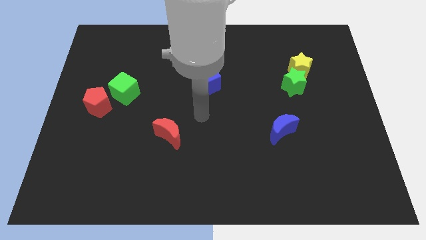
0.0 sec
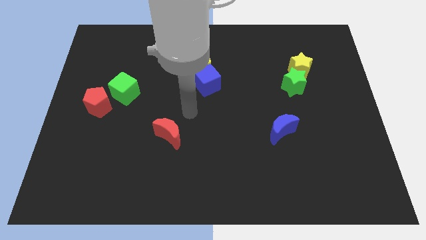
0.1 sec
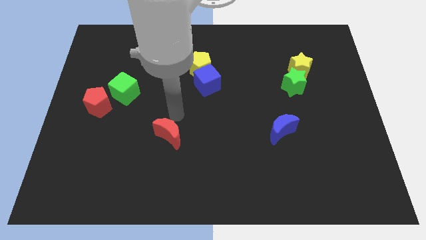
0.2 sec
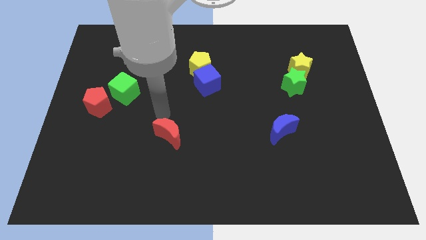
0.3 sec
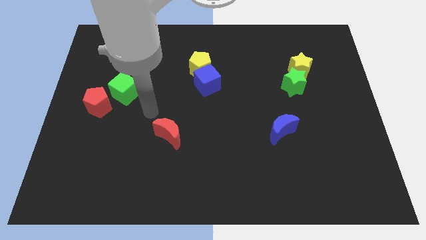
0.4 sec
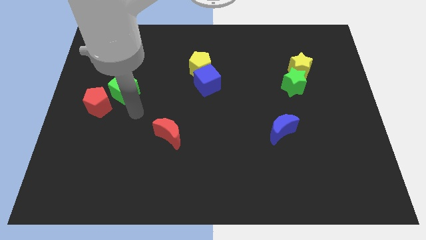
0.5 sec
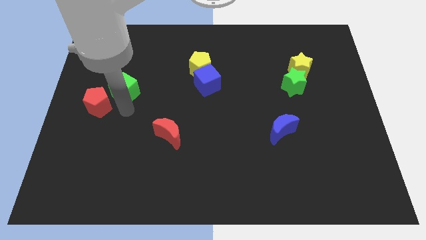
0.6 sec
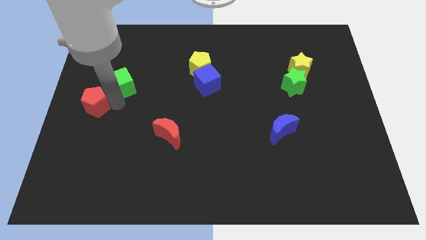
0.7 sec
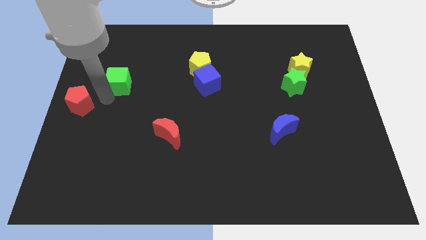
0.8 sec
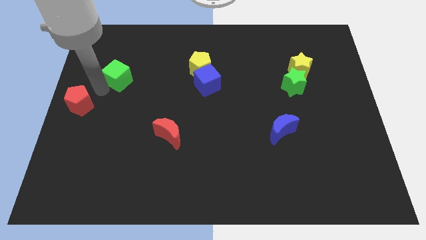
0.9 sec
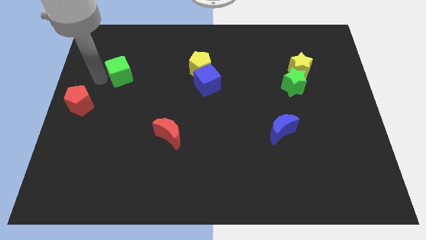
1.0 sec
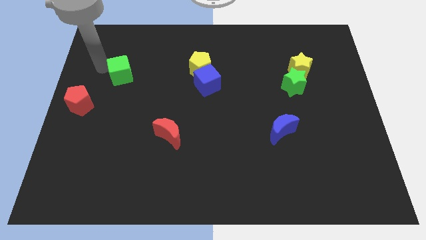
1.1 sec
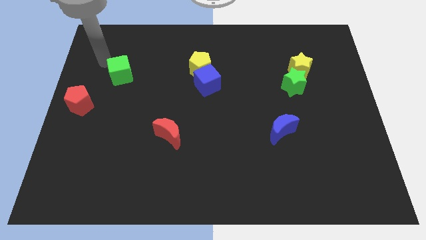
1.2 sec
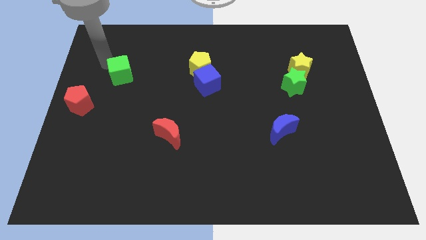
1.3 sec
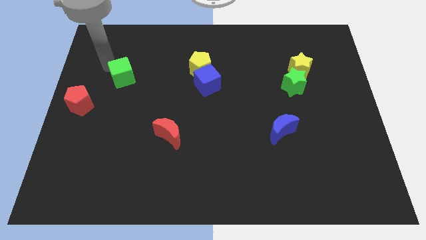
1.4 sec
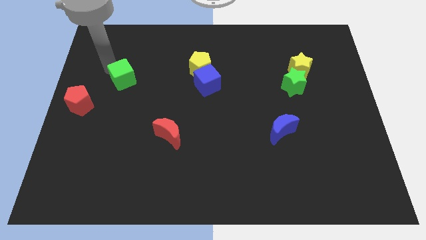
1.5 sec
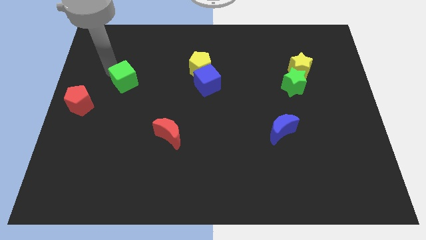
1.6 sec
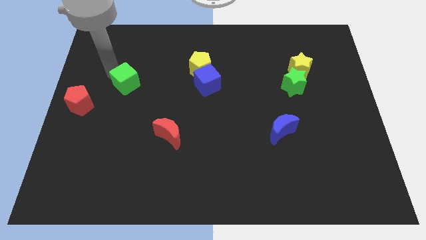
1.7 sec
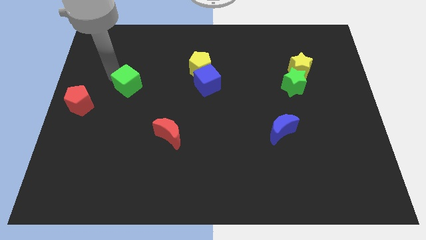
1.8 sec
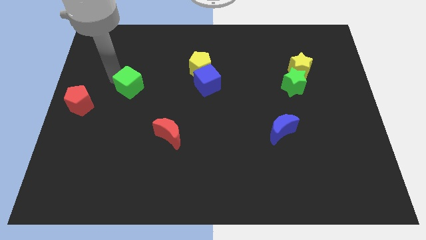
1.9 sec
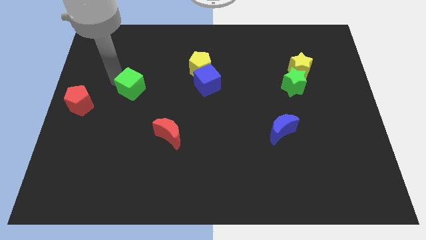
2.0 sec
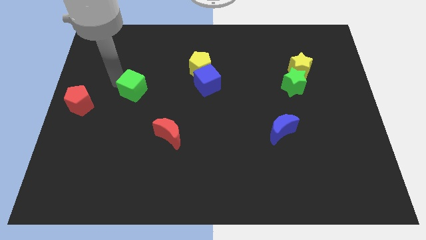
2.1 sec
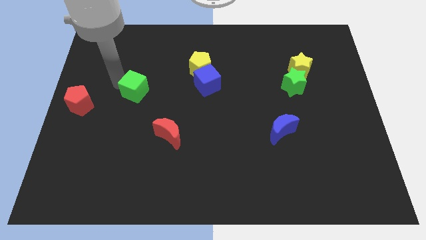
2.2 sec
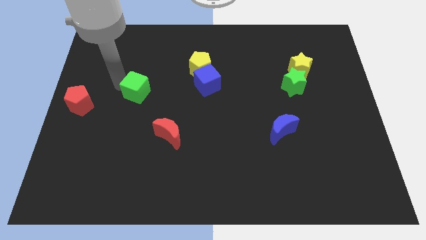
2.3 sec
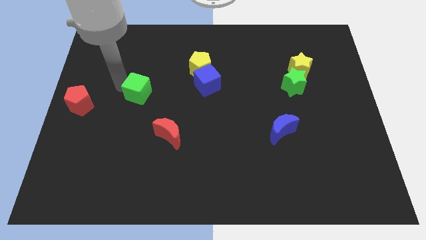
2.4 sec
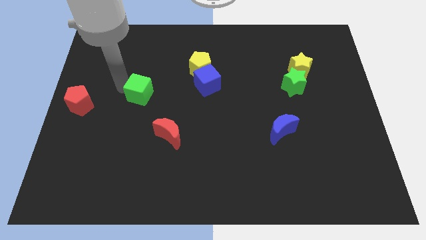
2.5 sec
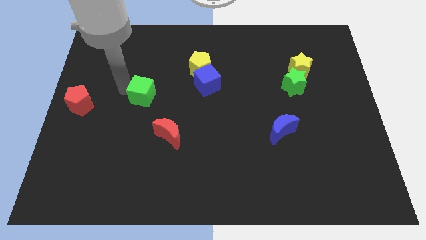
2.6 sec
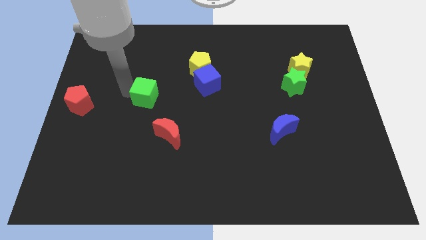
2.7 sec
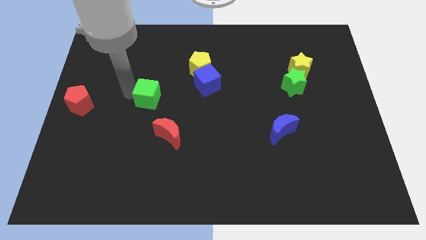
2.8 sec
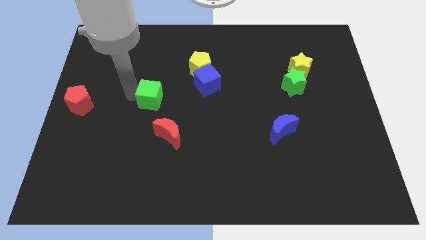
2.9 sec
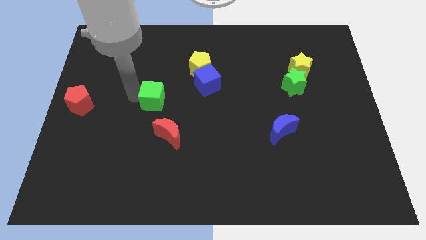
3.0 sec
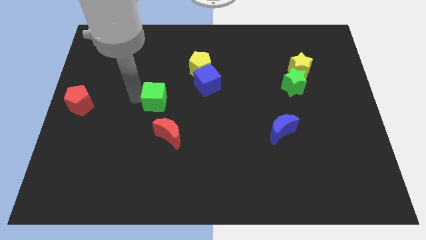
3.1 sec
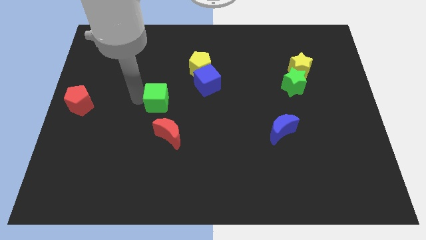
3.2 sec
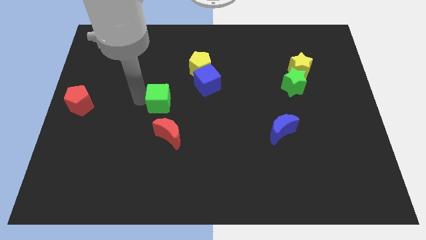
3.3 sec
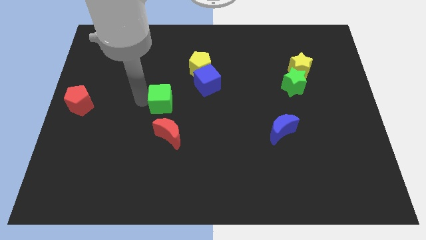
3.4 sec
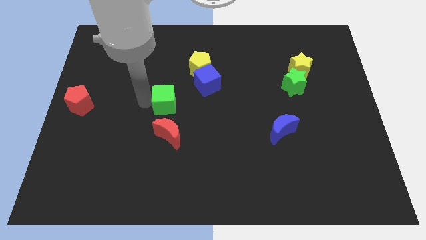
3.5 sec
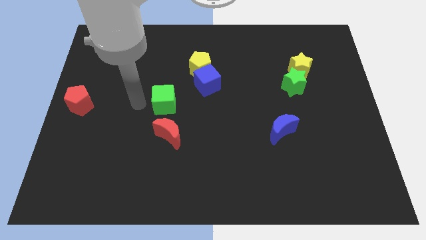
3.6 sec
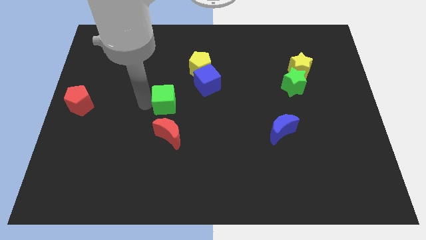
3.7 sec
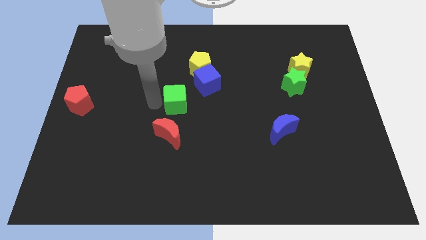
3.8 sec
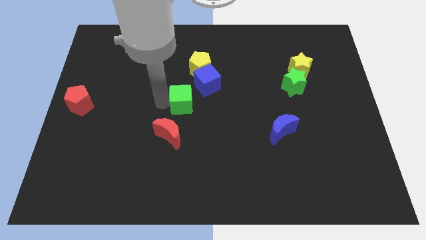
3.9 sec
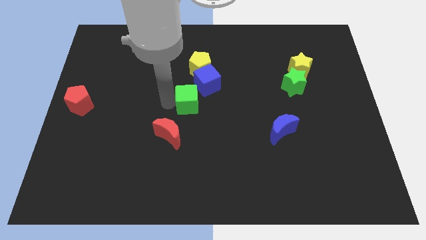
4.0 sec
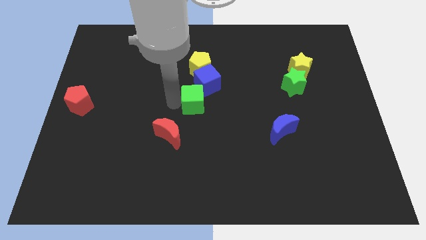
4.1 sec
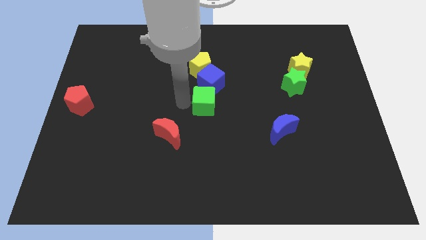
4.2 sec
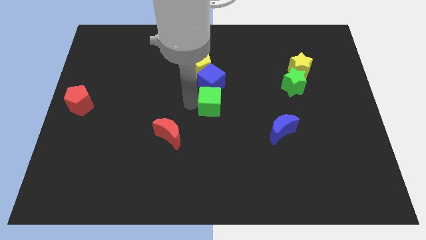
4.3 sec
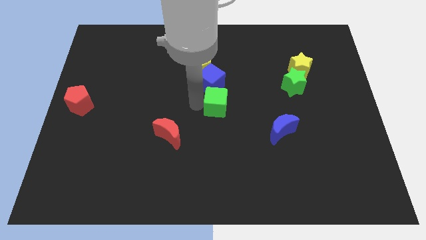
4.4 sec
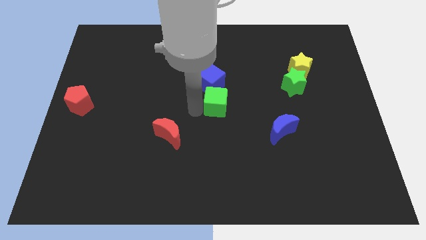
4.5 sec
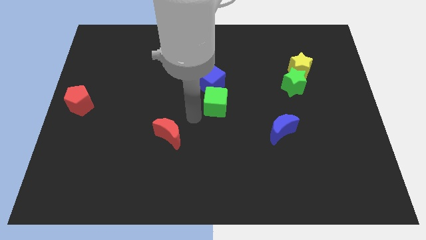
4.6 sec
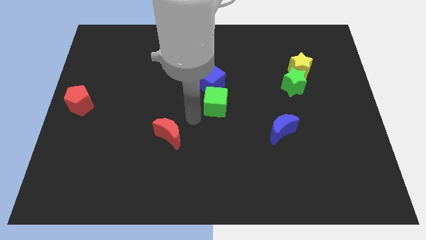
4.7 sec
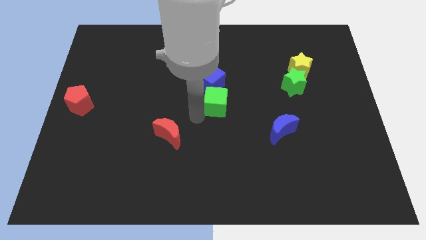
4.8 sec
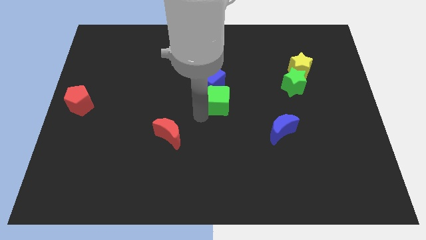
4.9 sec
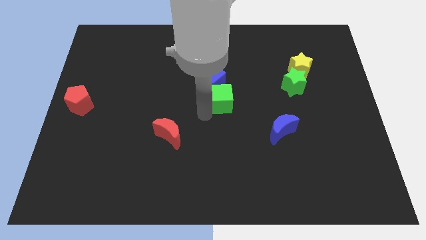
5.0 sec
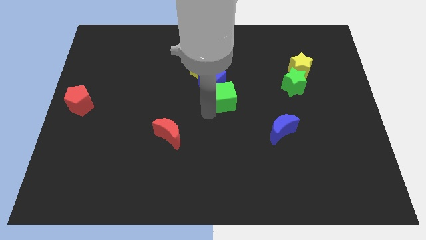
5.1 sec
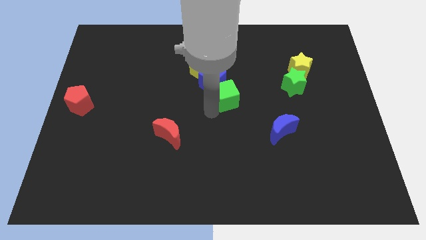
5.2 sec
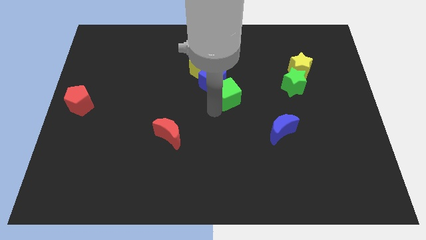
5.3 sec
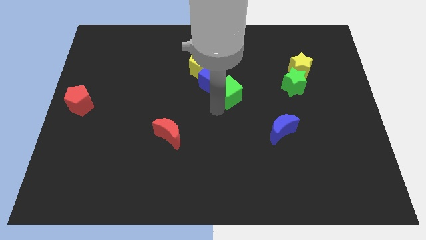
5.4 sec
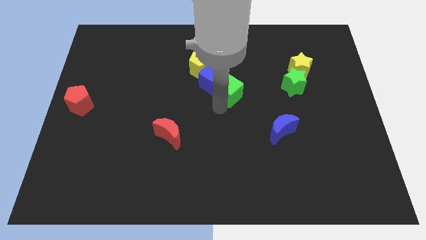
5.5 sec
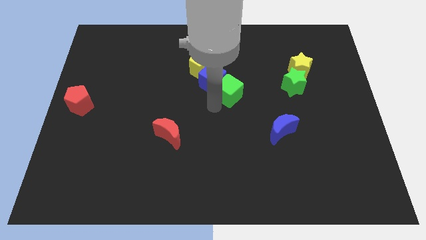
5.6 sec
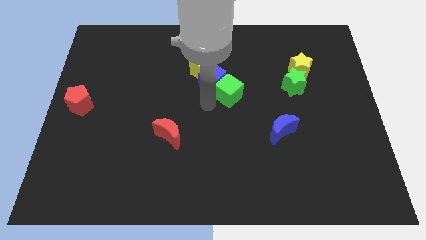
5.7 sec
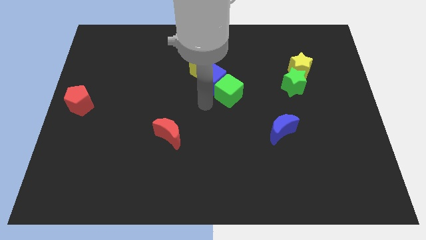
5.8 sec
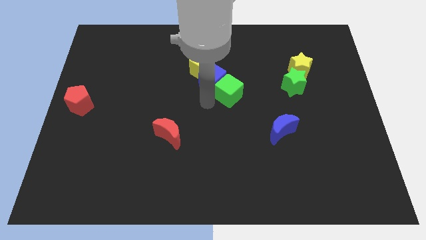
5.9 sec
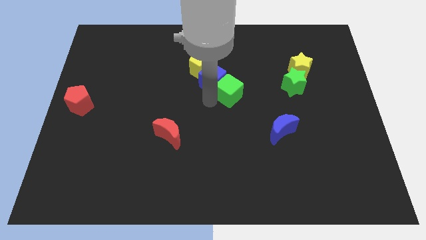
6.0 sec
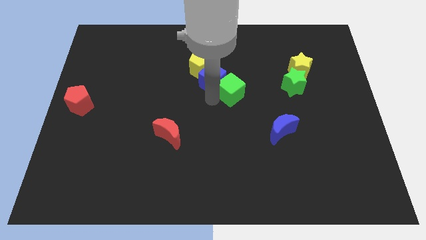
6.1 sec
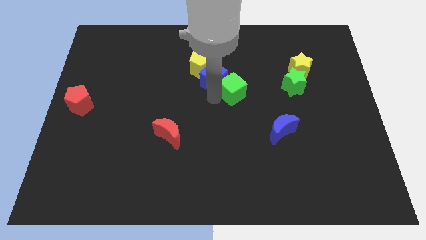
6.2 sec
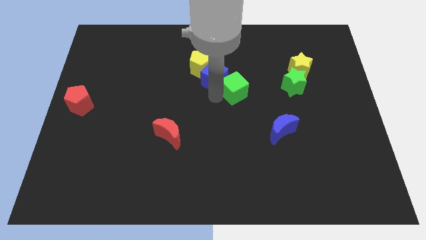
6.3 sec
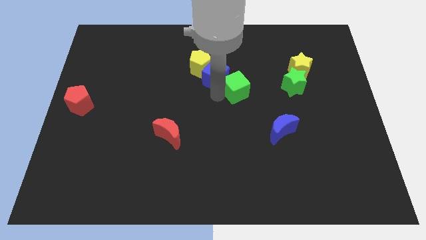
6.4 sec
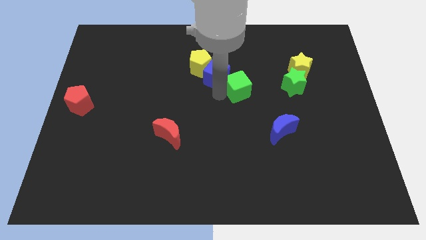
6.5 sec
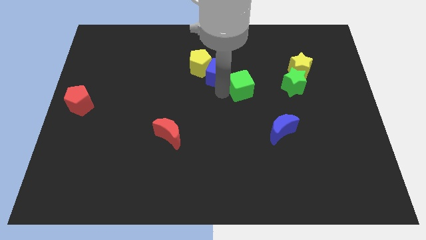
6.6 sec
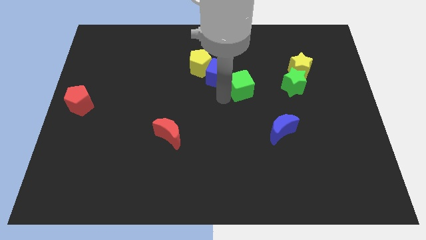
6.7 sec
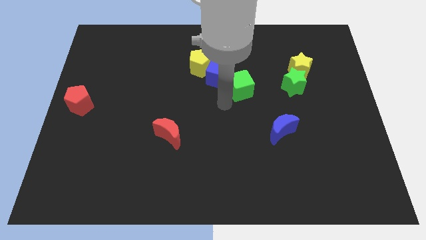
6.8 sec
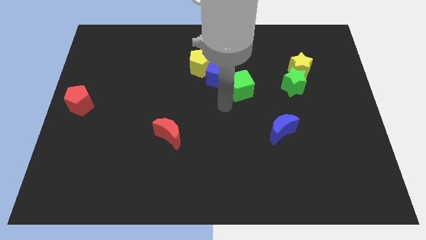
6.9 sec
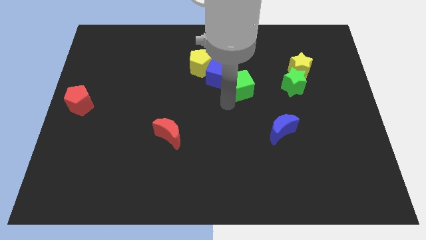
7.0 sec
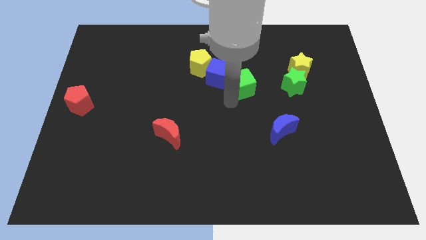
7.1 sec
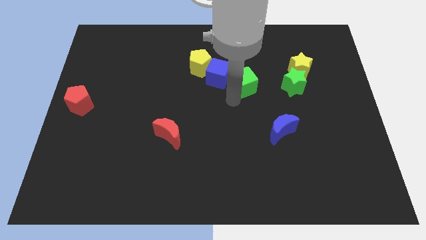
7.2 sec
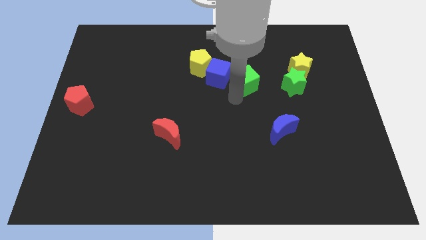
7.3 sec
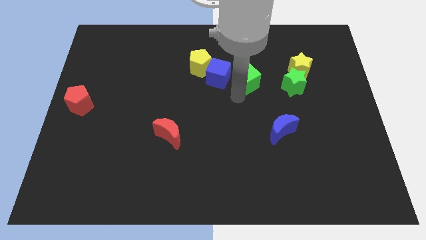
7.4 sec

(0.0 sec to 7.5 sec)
put the green cube left of the yellow star
